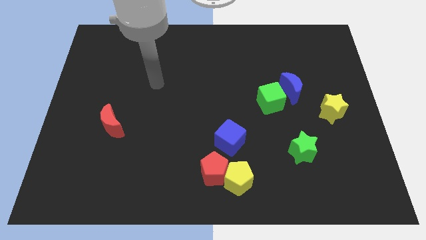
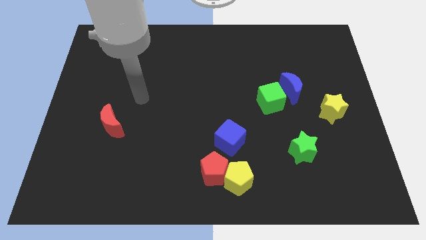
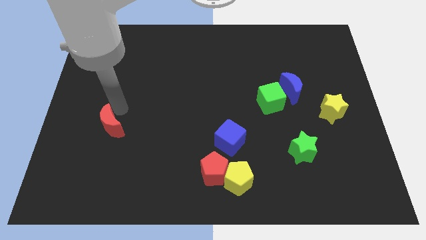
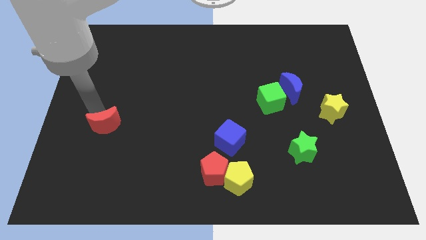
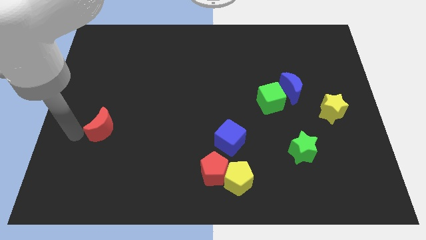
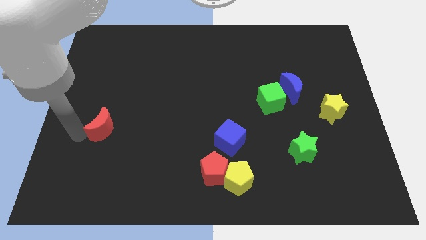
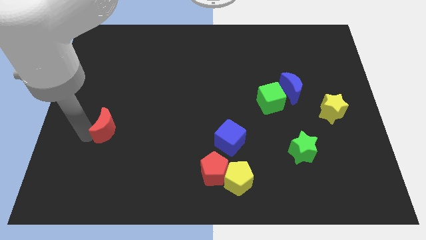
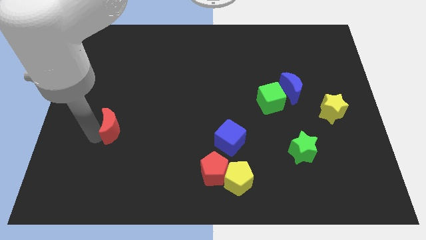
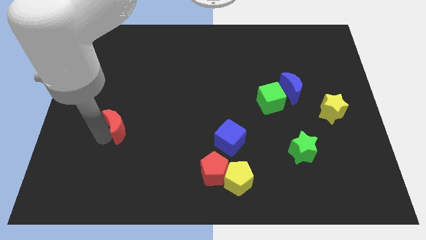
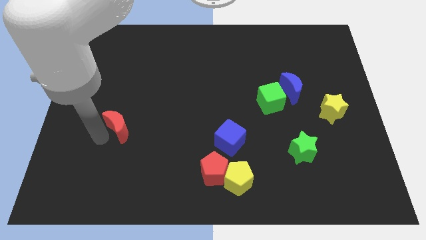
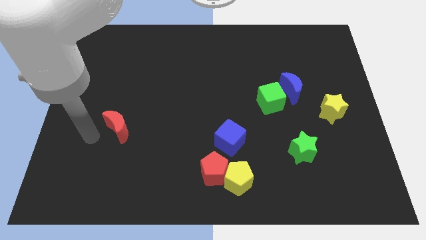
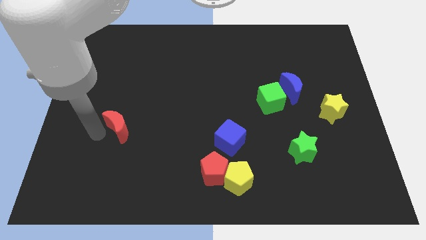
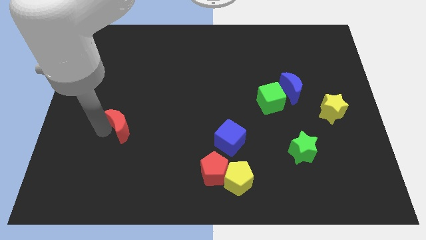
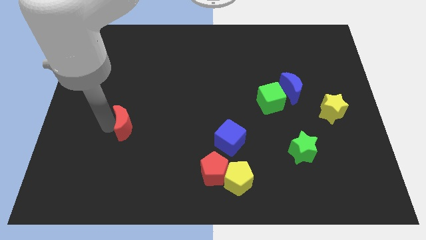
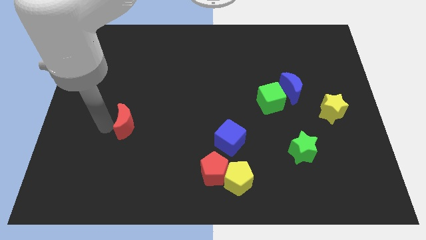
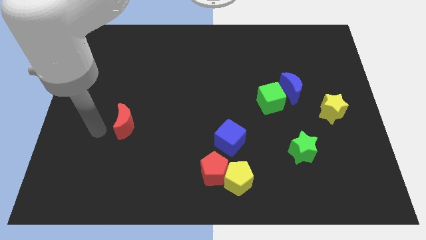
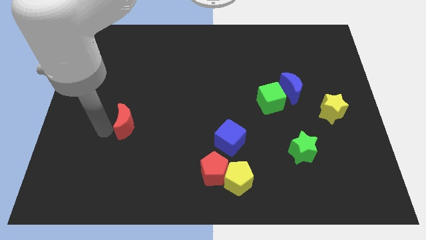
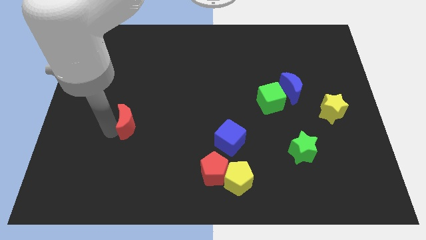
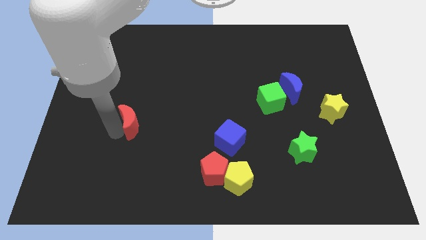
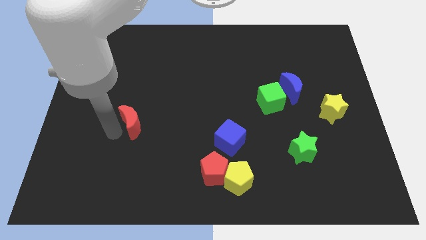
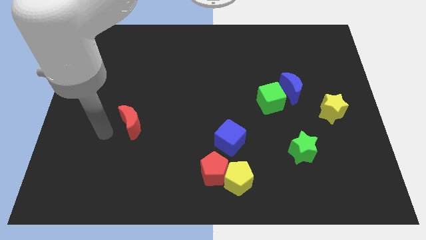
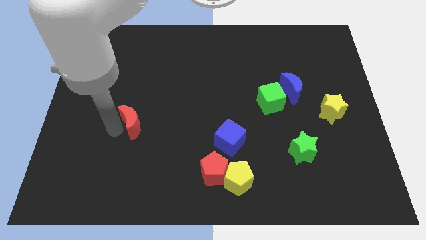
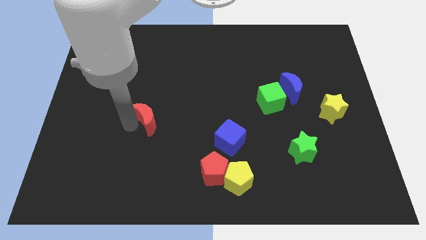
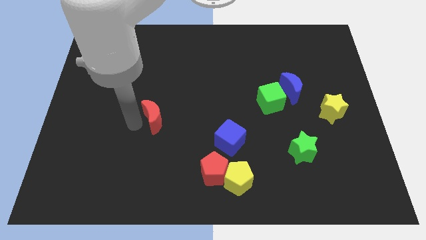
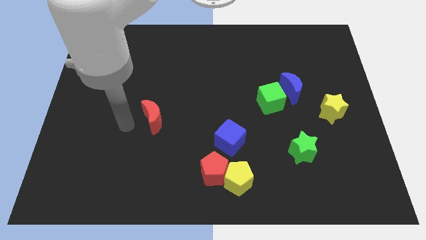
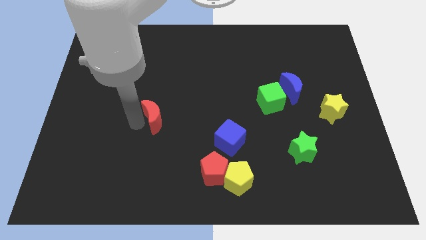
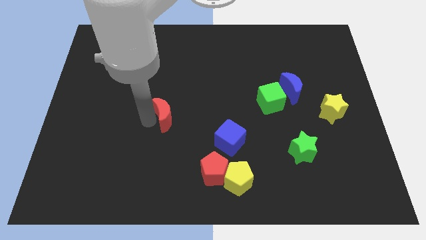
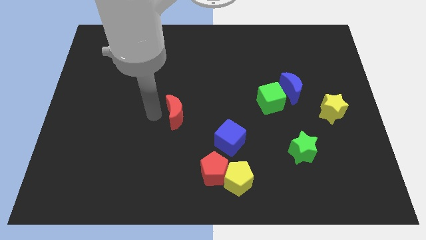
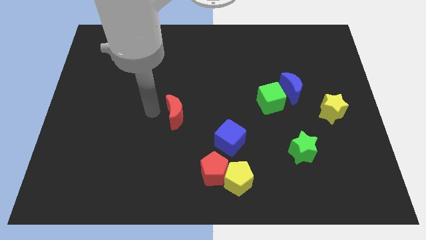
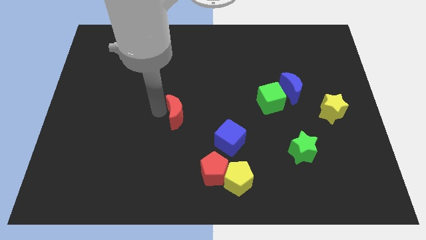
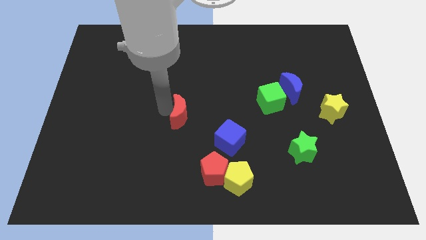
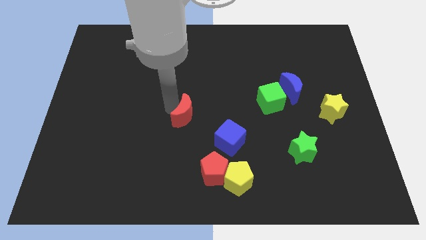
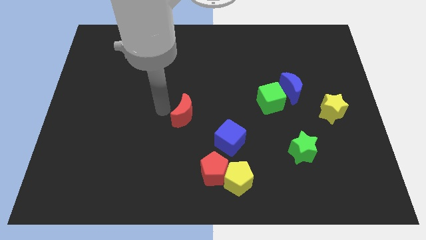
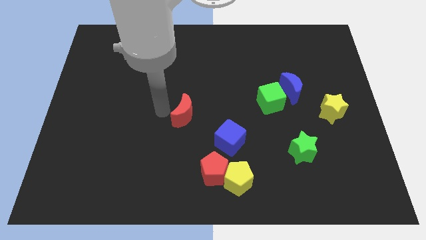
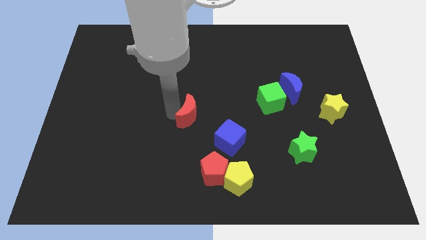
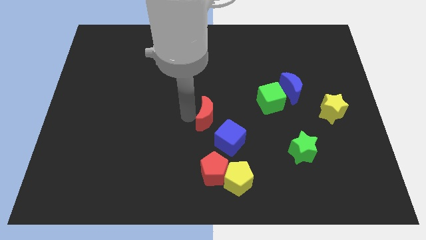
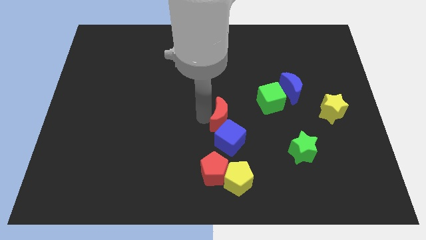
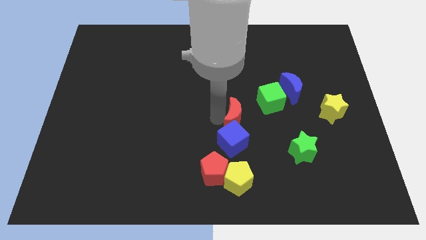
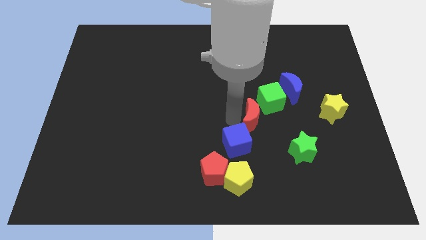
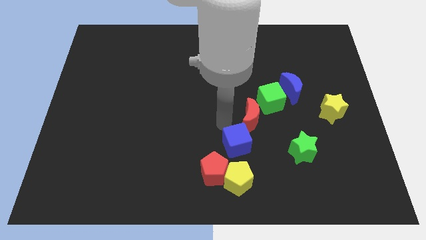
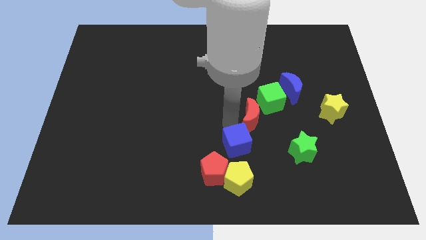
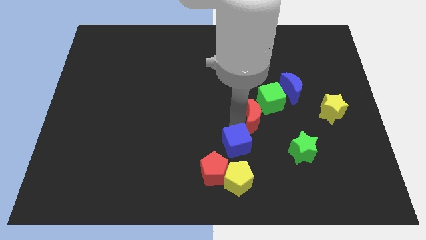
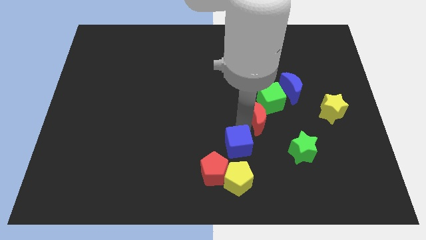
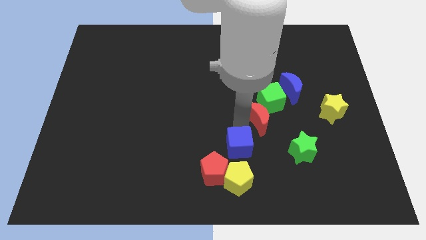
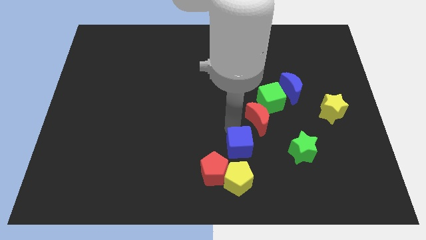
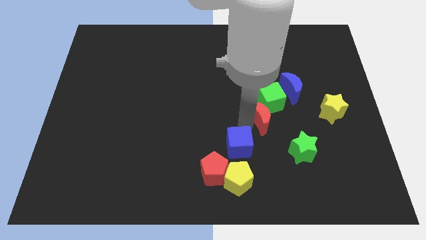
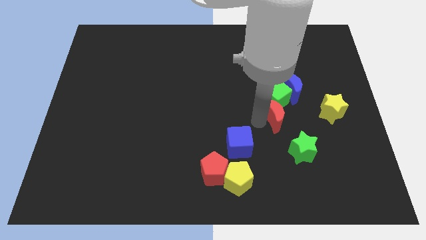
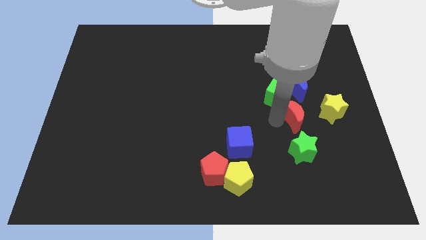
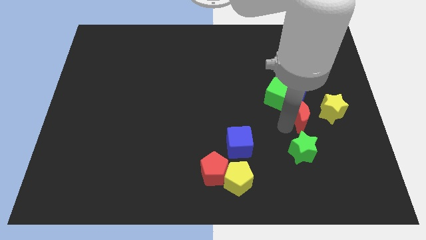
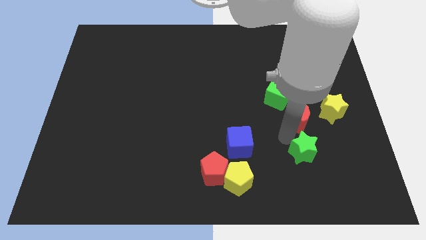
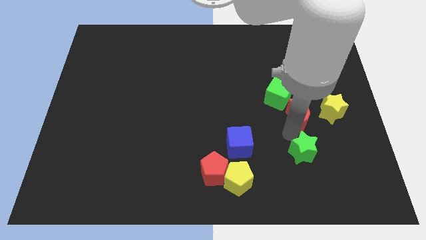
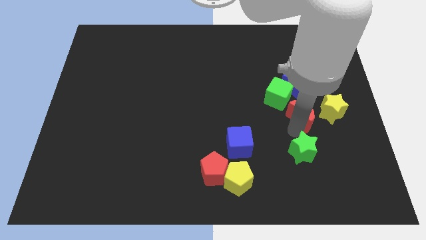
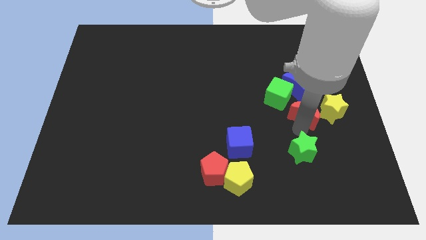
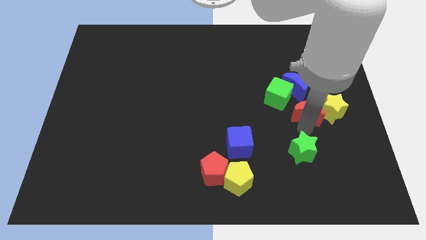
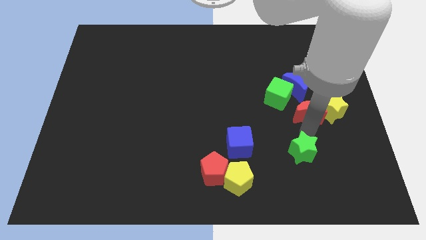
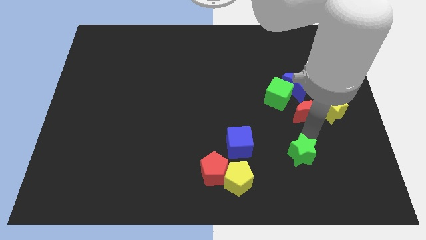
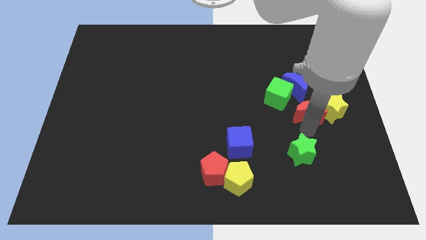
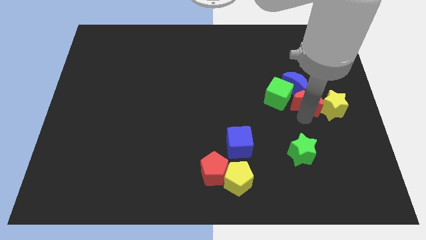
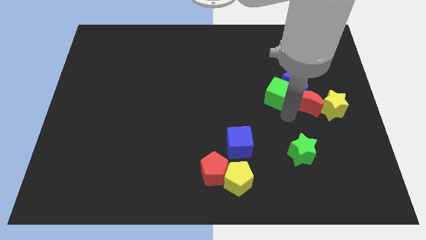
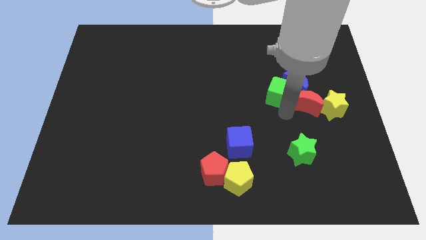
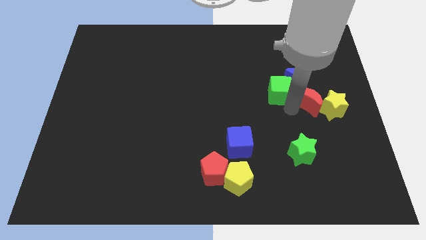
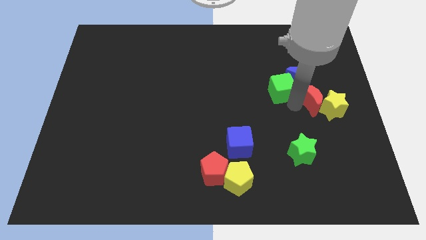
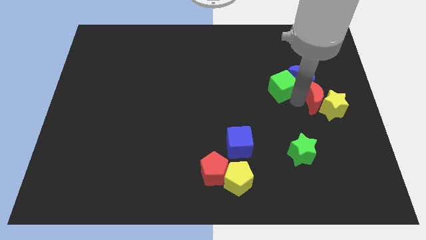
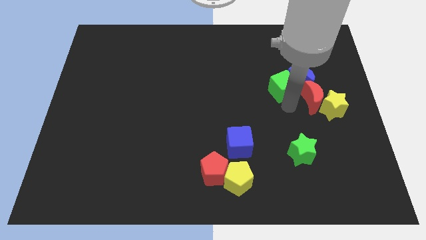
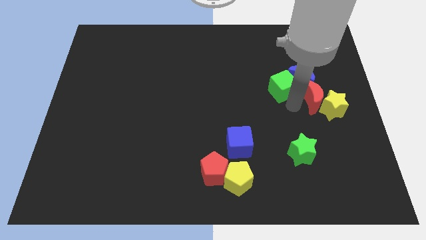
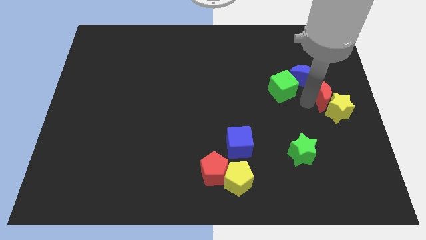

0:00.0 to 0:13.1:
put the red moon to the right side
